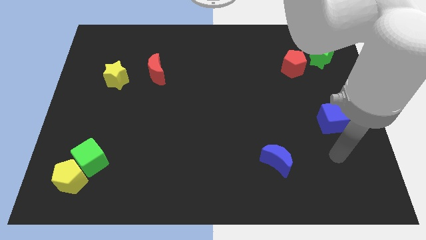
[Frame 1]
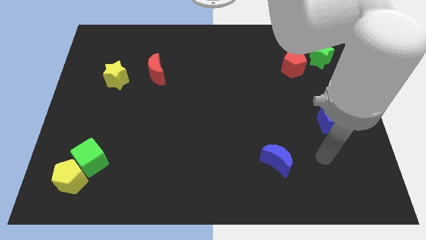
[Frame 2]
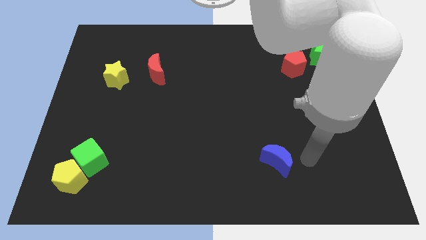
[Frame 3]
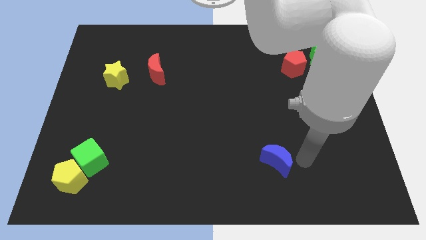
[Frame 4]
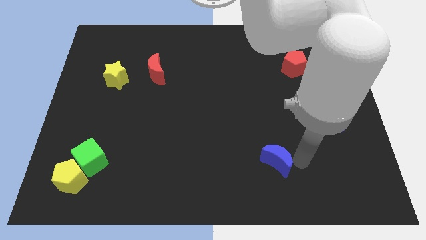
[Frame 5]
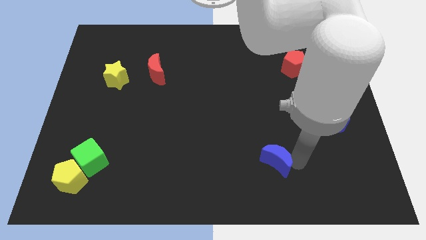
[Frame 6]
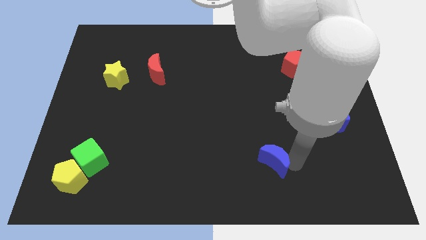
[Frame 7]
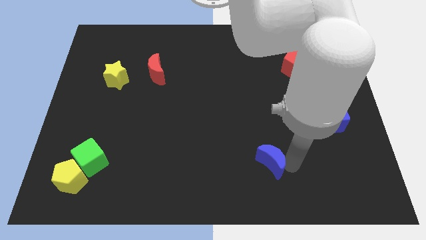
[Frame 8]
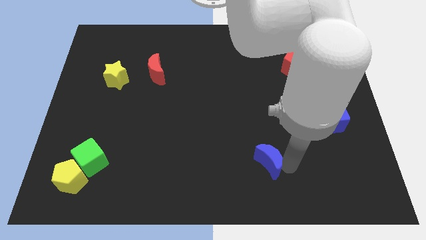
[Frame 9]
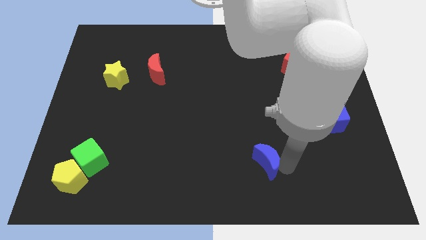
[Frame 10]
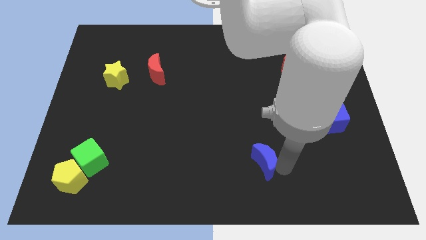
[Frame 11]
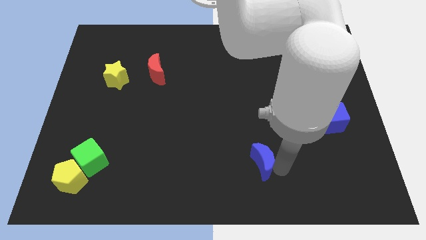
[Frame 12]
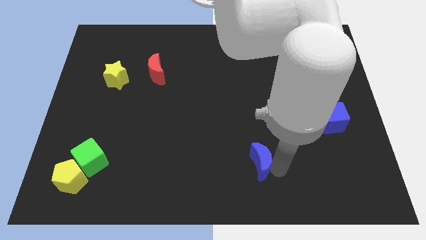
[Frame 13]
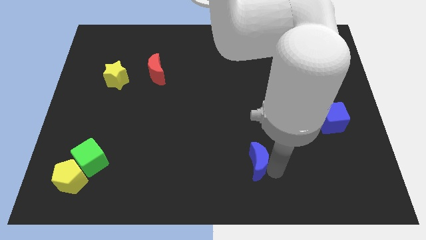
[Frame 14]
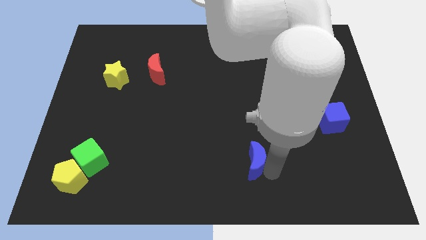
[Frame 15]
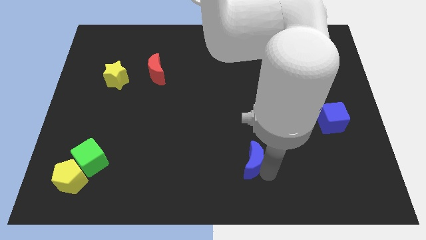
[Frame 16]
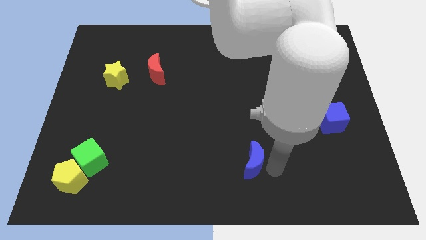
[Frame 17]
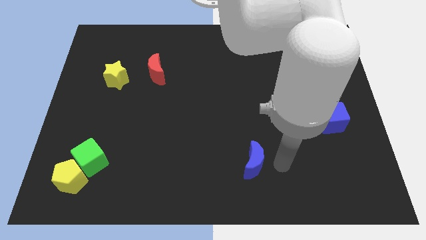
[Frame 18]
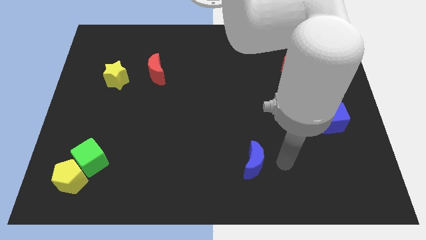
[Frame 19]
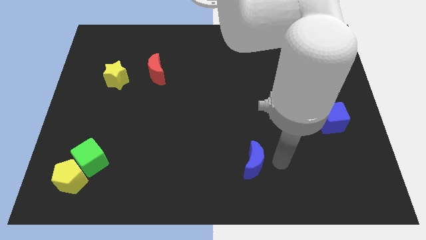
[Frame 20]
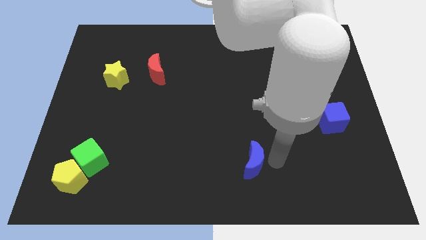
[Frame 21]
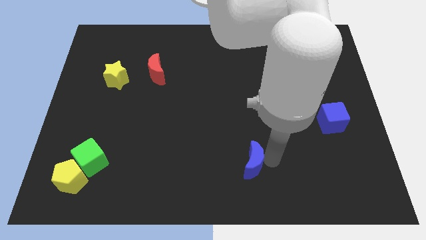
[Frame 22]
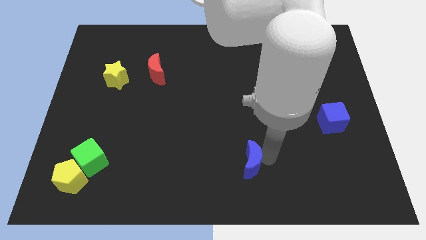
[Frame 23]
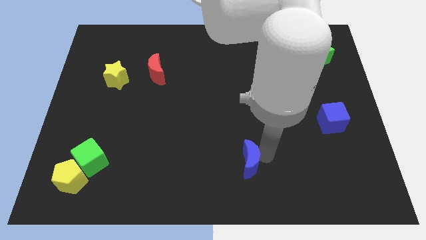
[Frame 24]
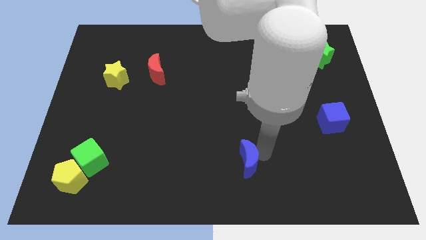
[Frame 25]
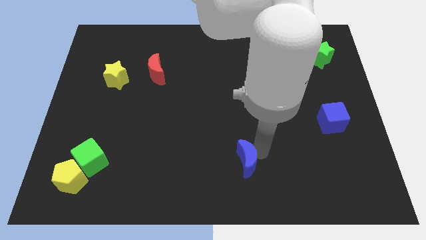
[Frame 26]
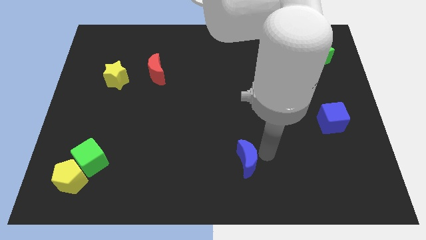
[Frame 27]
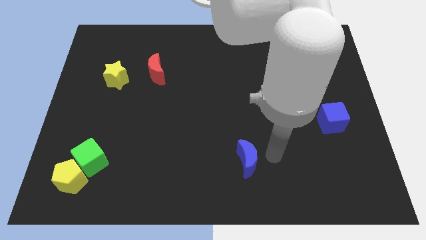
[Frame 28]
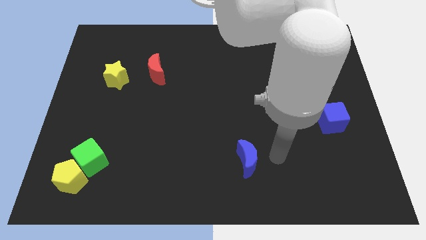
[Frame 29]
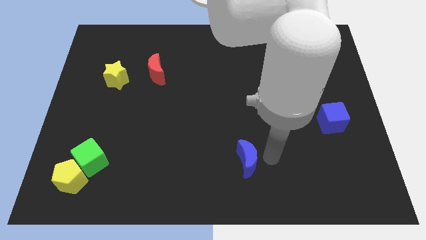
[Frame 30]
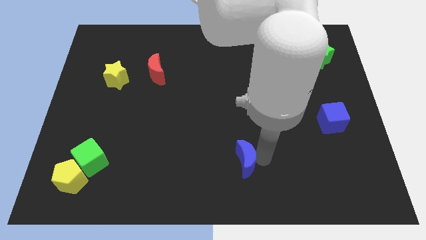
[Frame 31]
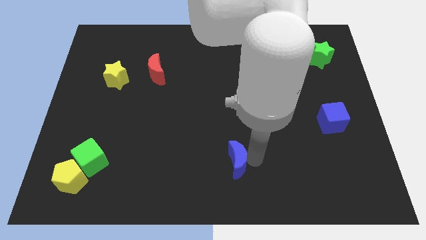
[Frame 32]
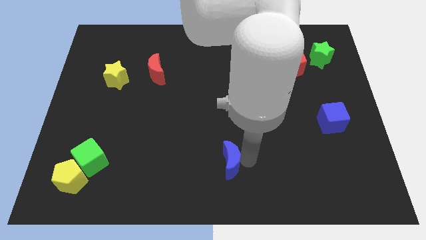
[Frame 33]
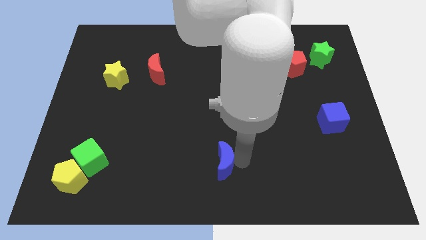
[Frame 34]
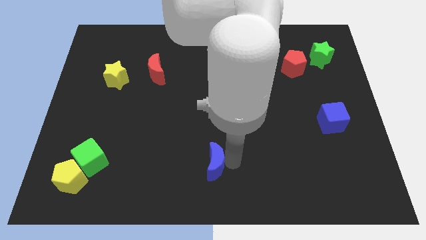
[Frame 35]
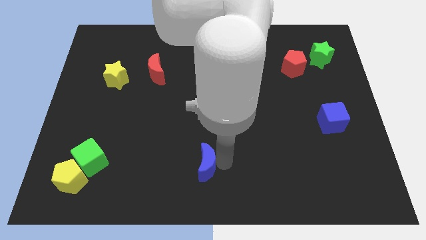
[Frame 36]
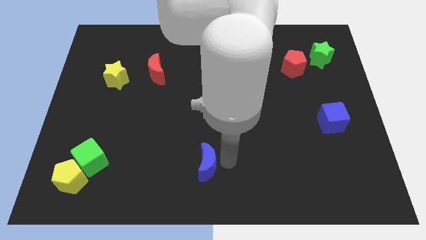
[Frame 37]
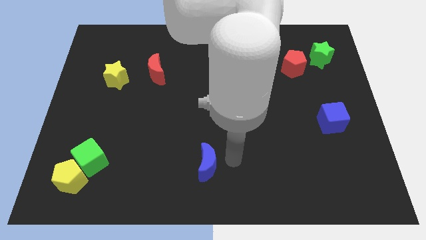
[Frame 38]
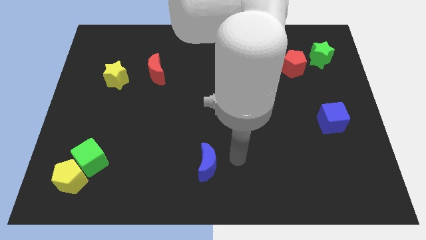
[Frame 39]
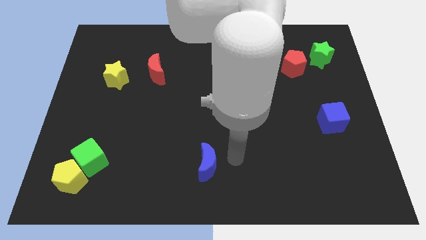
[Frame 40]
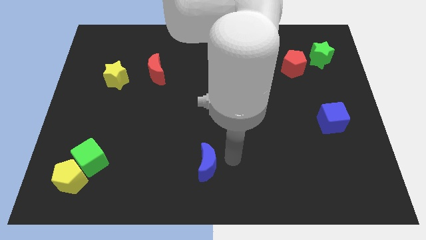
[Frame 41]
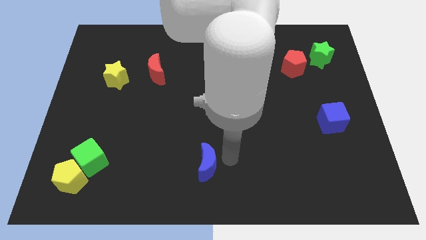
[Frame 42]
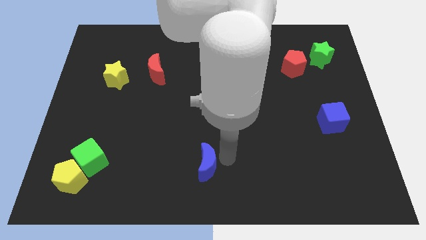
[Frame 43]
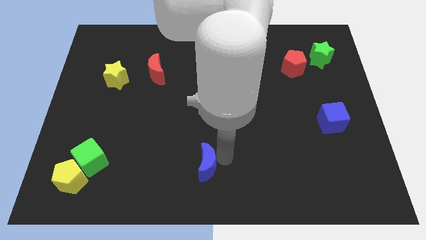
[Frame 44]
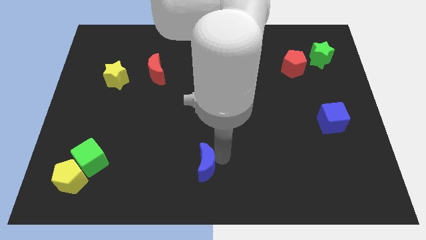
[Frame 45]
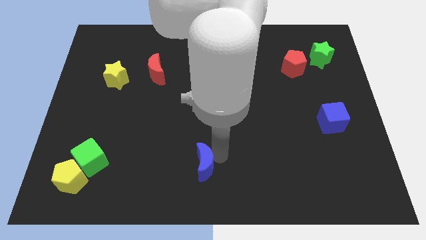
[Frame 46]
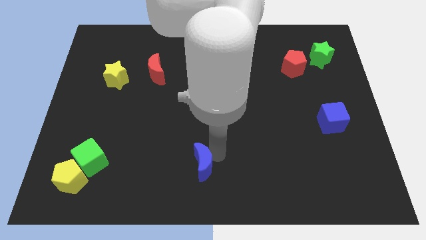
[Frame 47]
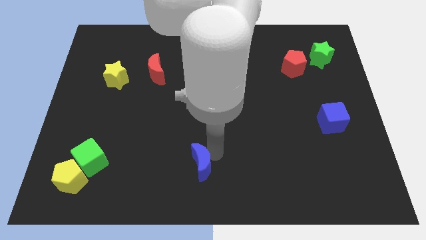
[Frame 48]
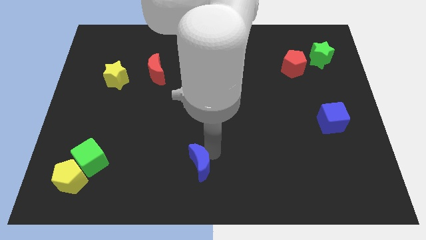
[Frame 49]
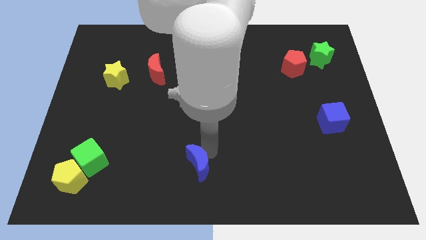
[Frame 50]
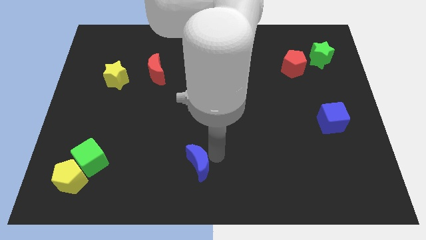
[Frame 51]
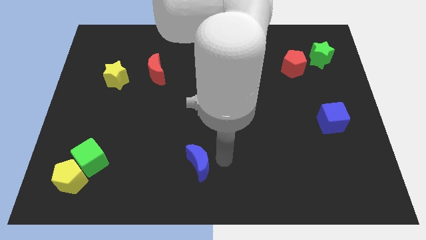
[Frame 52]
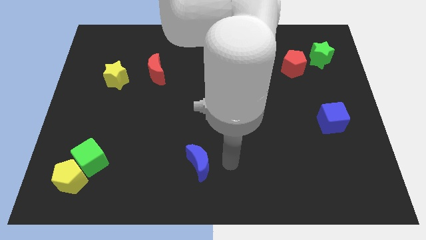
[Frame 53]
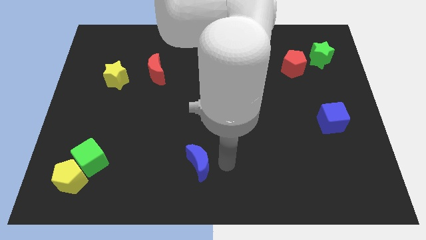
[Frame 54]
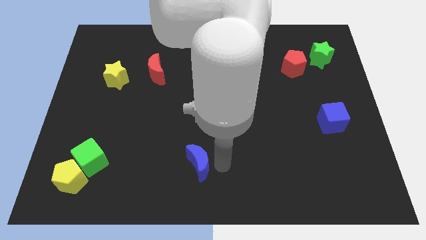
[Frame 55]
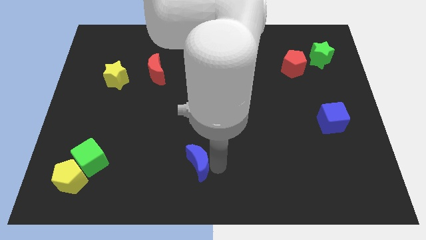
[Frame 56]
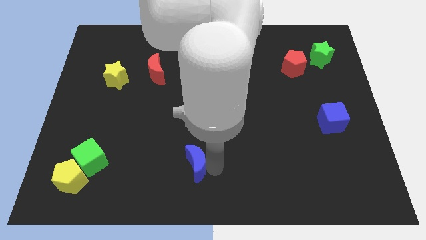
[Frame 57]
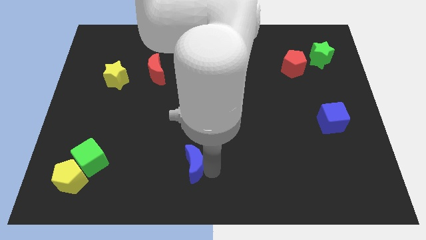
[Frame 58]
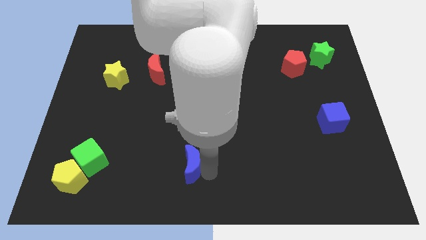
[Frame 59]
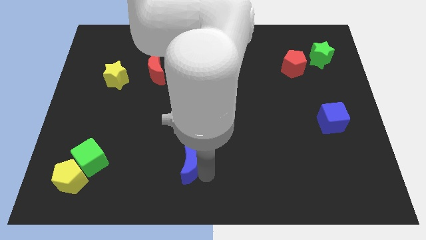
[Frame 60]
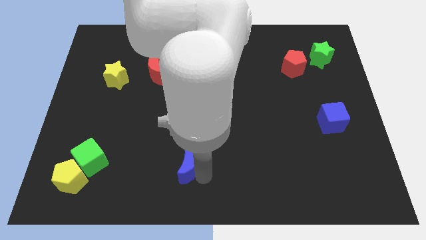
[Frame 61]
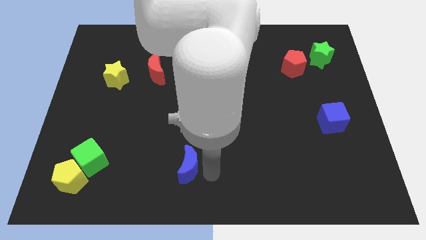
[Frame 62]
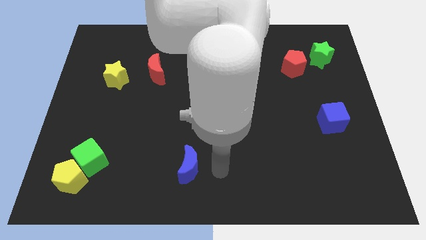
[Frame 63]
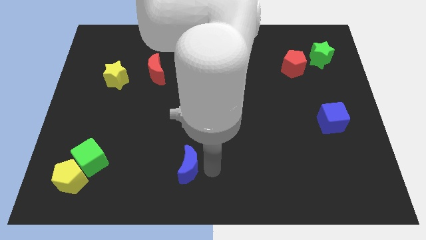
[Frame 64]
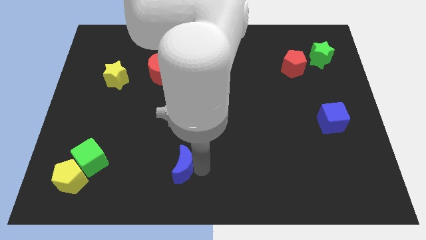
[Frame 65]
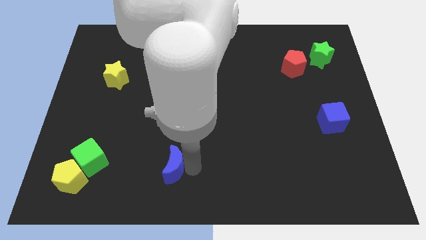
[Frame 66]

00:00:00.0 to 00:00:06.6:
move the blue moon left

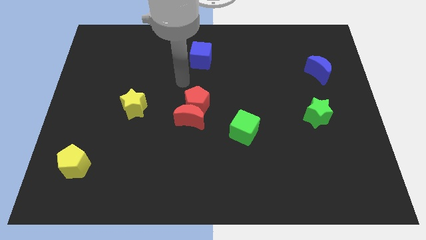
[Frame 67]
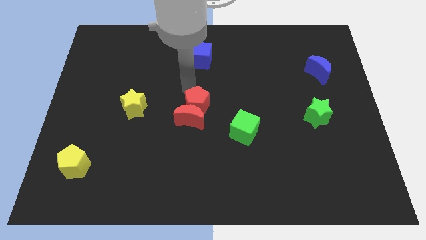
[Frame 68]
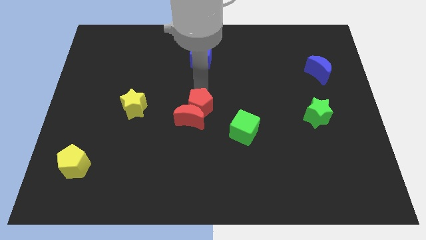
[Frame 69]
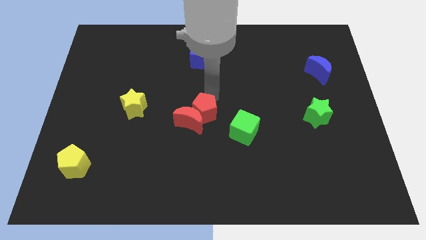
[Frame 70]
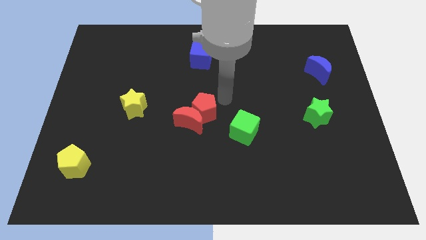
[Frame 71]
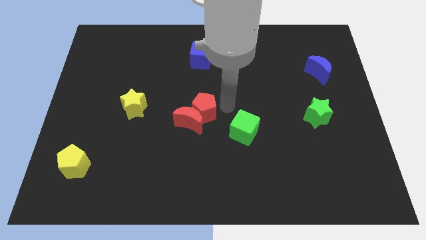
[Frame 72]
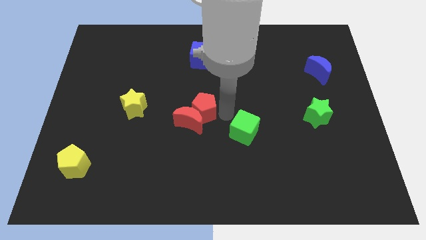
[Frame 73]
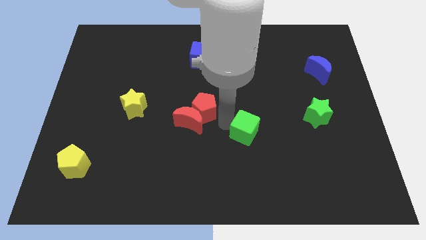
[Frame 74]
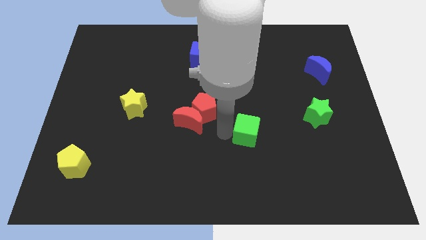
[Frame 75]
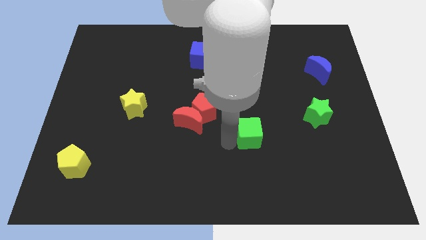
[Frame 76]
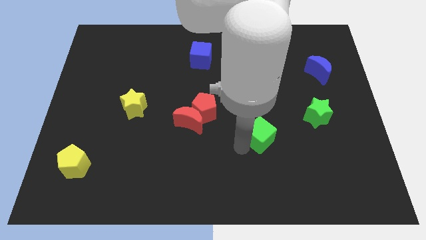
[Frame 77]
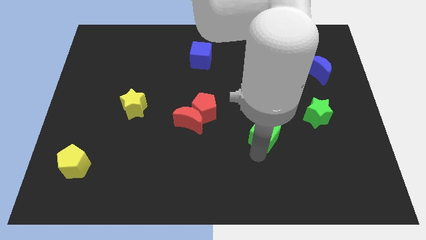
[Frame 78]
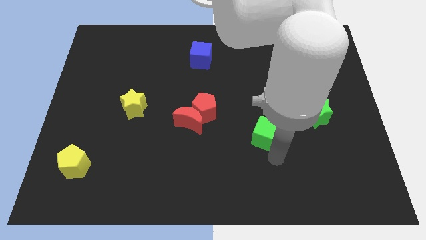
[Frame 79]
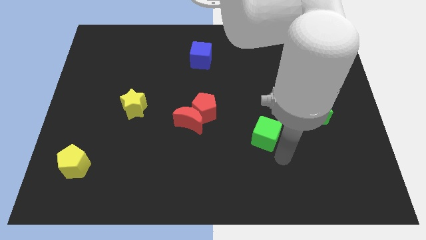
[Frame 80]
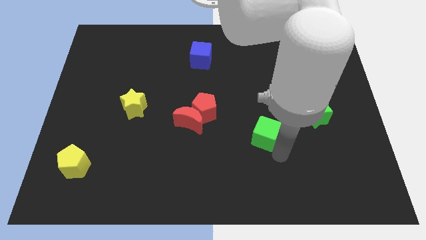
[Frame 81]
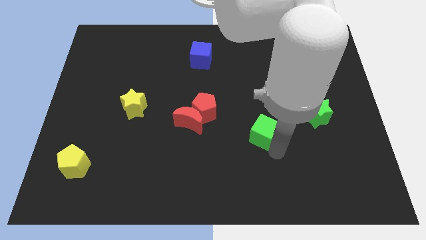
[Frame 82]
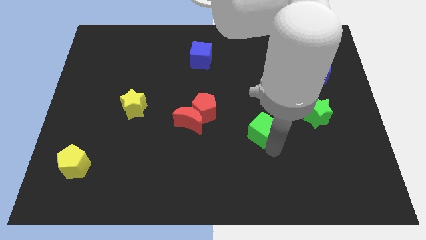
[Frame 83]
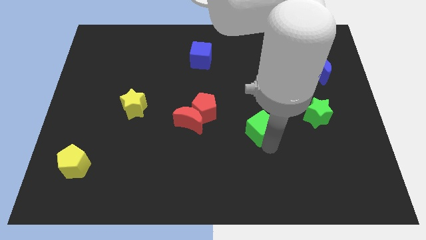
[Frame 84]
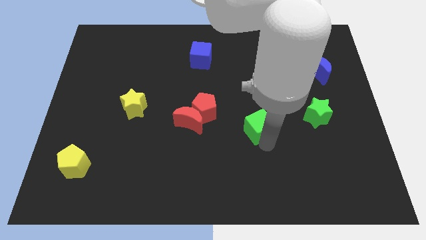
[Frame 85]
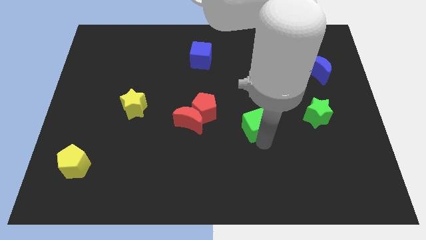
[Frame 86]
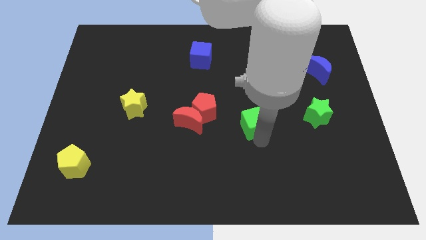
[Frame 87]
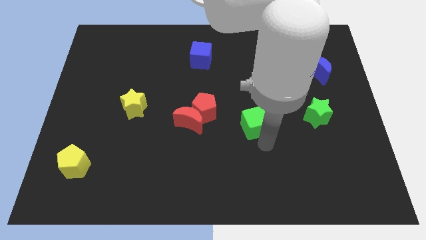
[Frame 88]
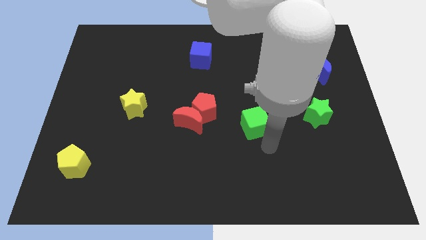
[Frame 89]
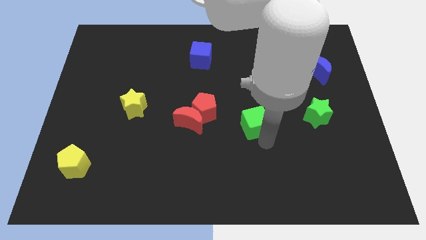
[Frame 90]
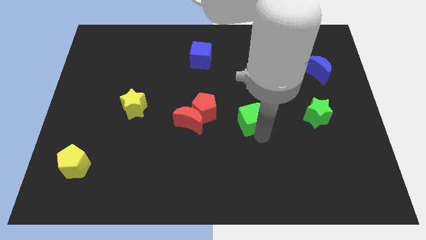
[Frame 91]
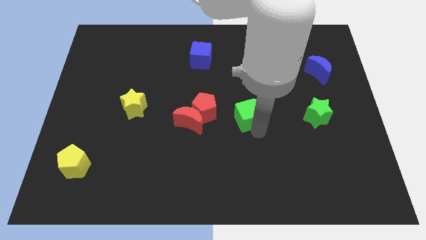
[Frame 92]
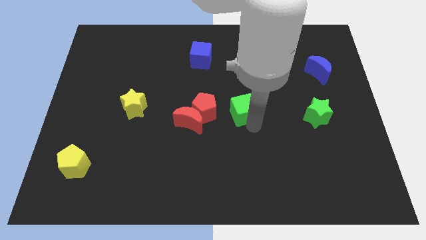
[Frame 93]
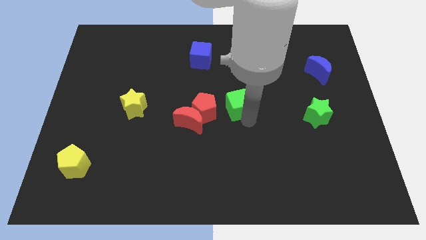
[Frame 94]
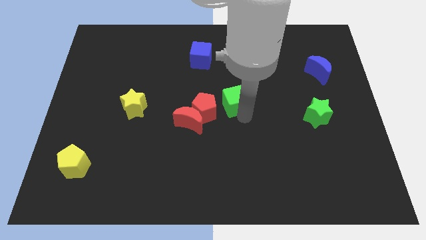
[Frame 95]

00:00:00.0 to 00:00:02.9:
move the green cube upwards a bit
